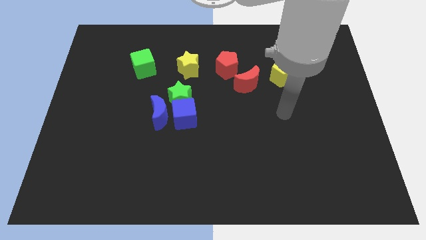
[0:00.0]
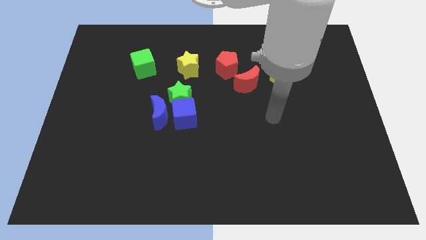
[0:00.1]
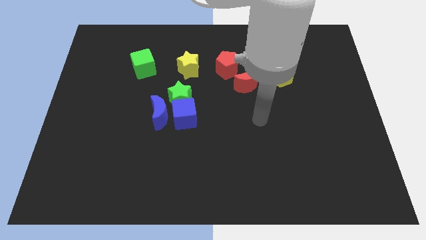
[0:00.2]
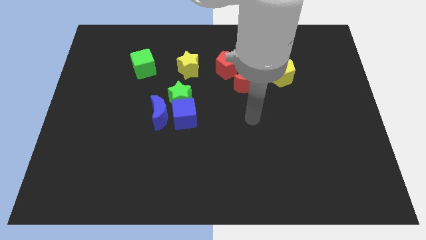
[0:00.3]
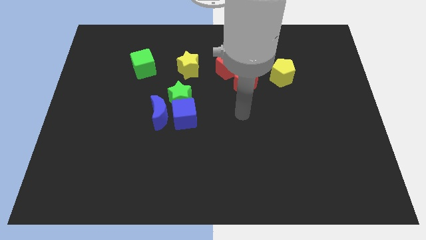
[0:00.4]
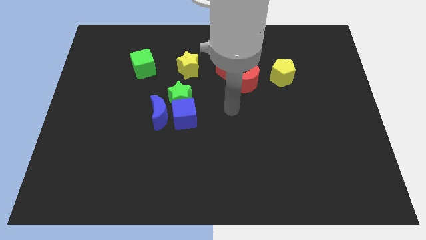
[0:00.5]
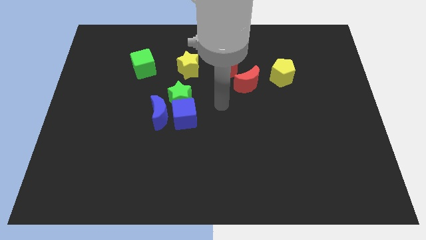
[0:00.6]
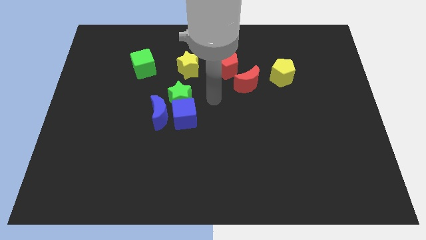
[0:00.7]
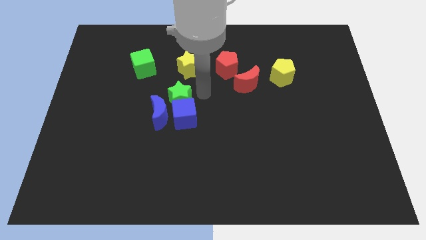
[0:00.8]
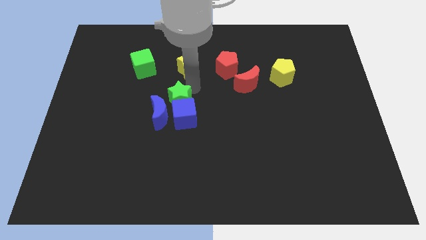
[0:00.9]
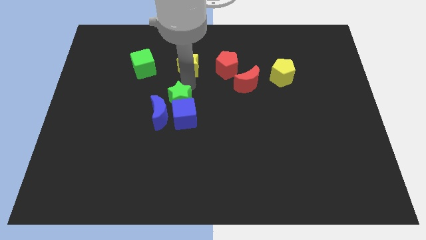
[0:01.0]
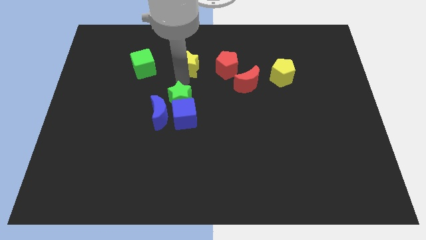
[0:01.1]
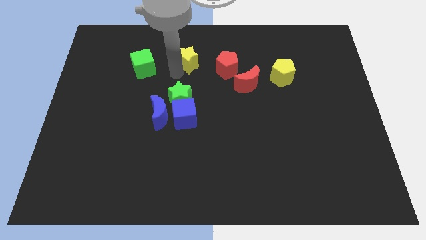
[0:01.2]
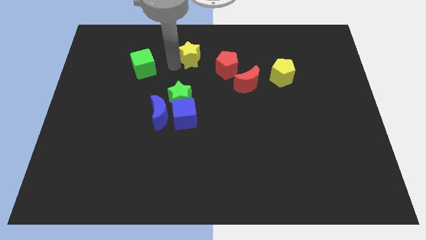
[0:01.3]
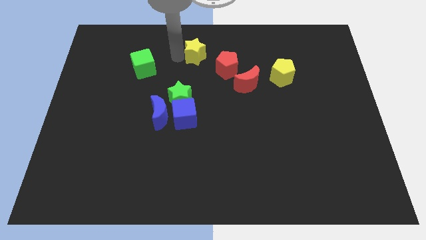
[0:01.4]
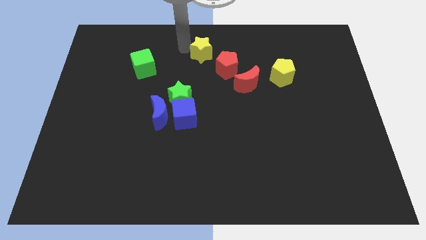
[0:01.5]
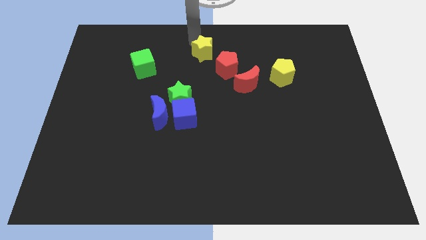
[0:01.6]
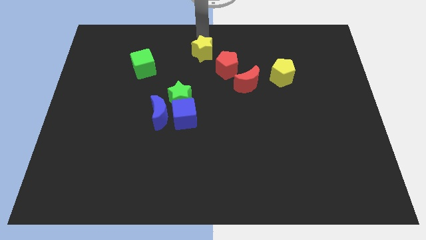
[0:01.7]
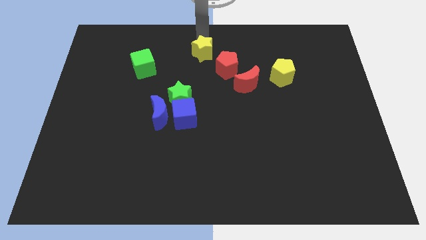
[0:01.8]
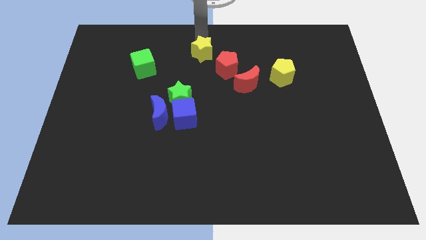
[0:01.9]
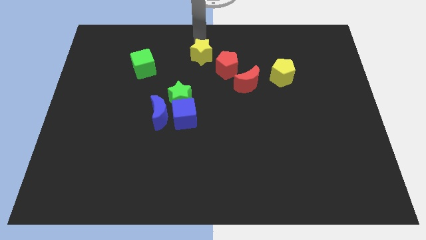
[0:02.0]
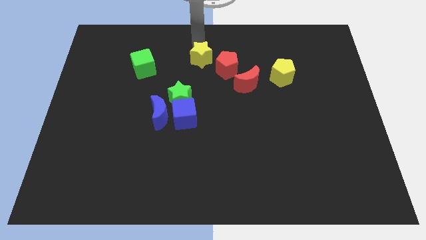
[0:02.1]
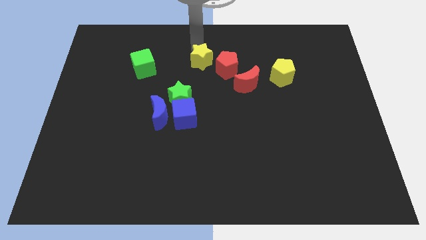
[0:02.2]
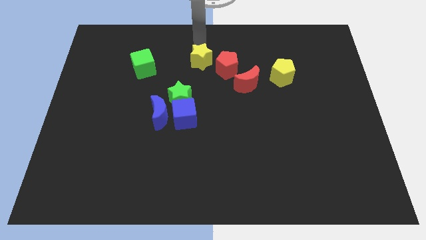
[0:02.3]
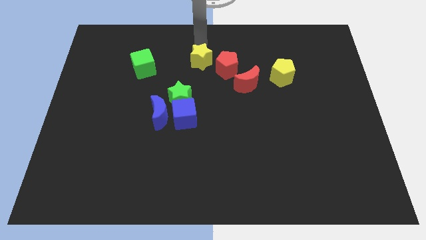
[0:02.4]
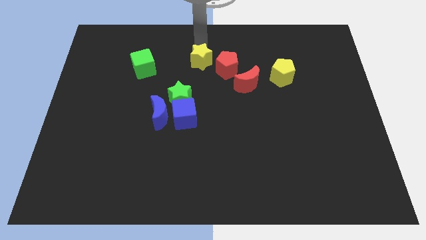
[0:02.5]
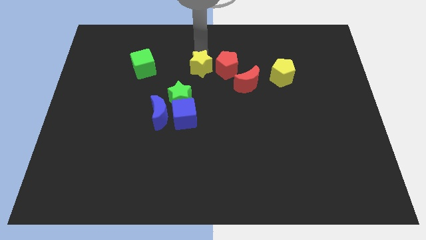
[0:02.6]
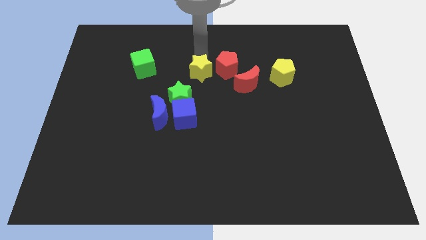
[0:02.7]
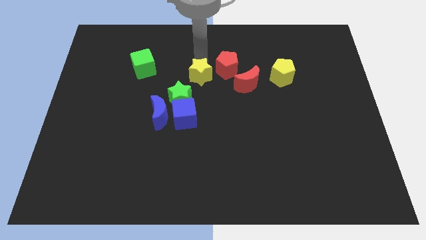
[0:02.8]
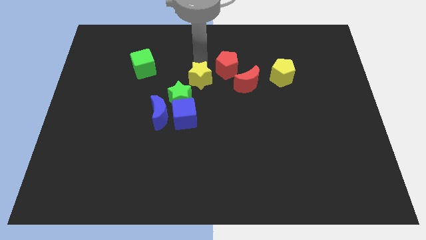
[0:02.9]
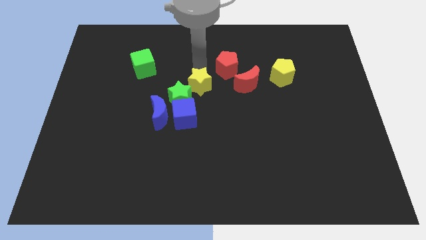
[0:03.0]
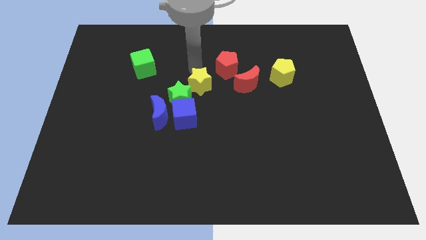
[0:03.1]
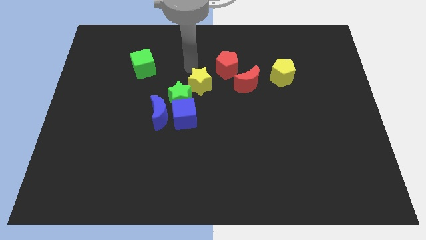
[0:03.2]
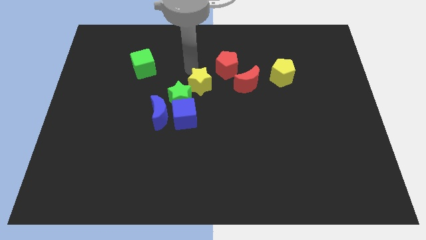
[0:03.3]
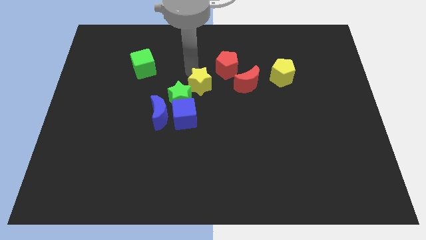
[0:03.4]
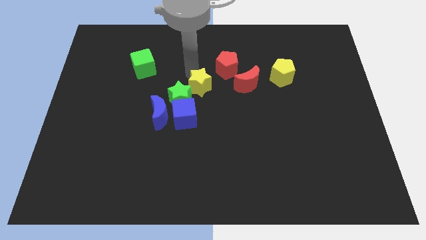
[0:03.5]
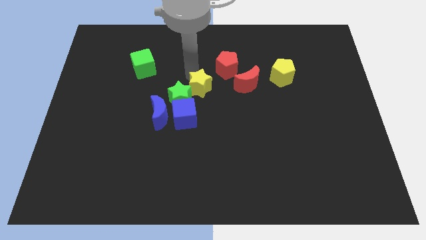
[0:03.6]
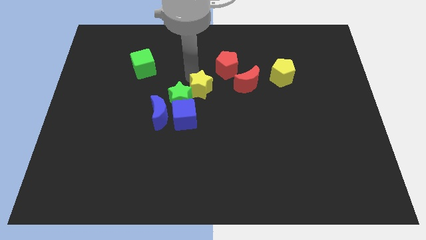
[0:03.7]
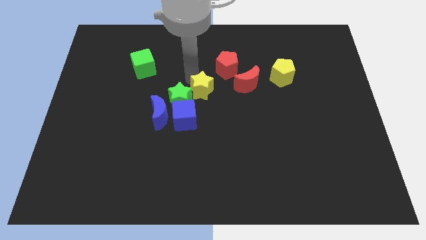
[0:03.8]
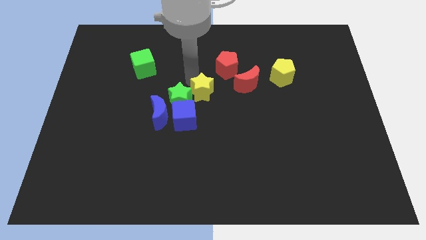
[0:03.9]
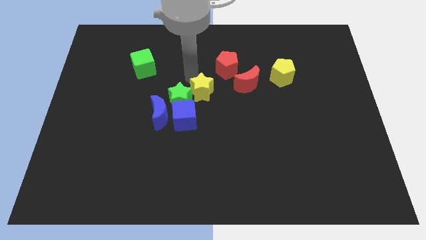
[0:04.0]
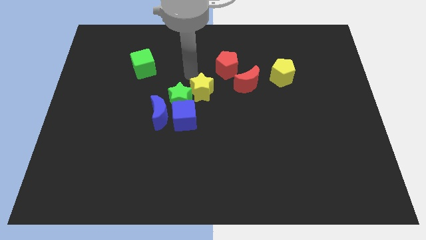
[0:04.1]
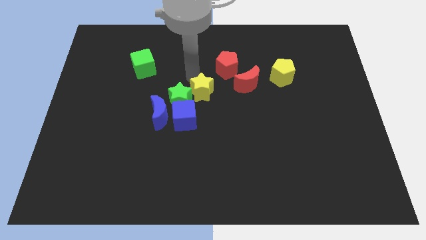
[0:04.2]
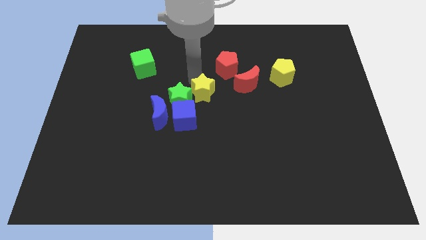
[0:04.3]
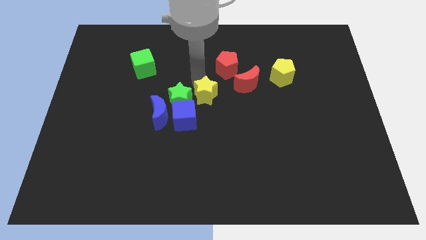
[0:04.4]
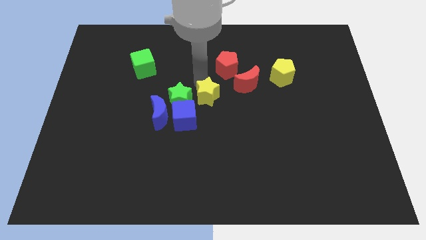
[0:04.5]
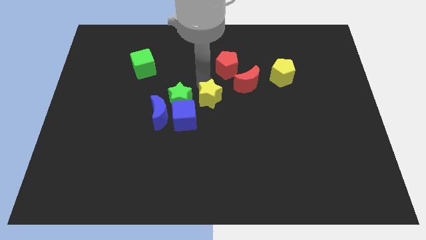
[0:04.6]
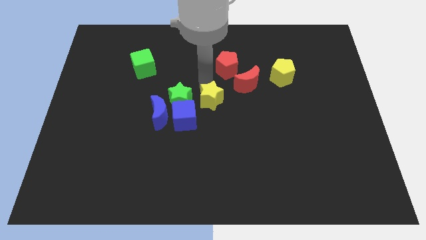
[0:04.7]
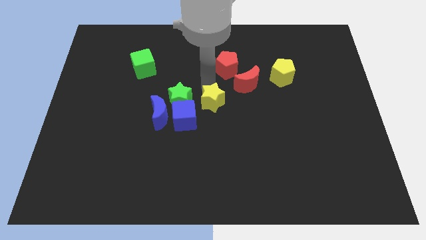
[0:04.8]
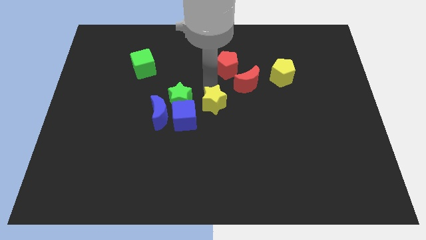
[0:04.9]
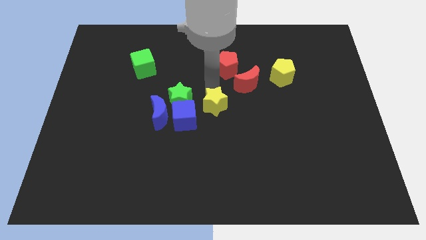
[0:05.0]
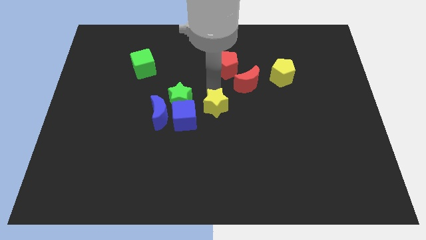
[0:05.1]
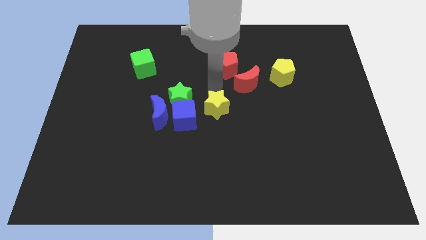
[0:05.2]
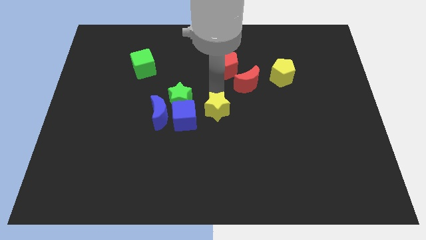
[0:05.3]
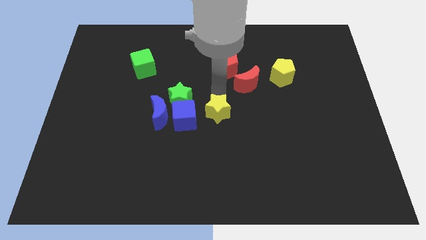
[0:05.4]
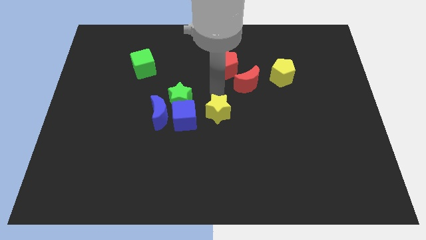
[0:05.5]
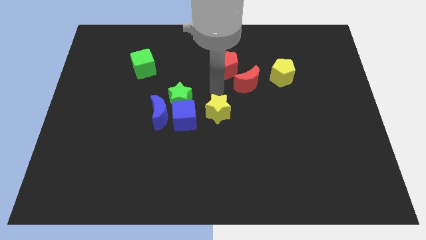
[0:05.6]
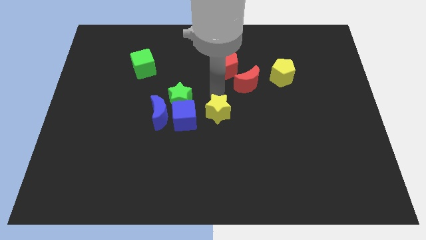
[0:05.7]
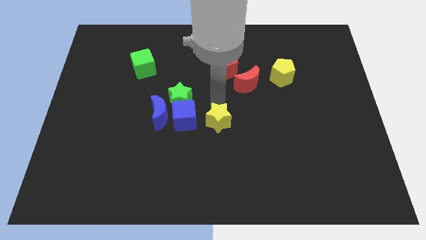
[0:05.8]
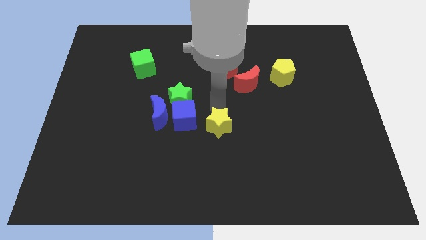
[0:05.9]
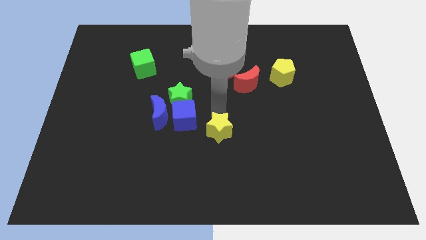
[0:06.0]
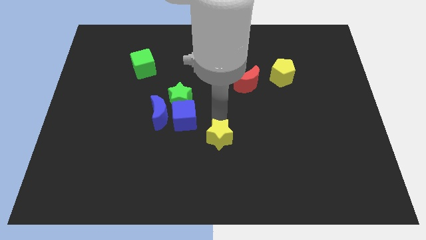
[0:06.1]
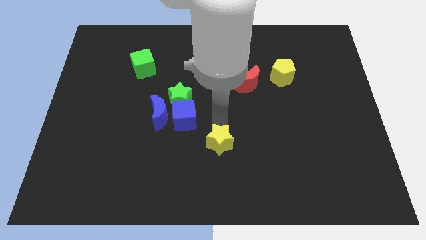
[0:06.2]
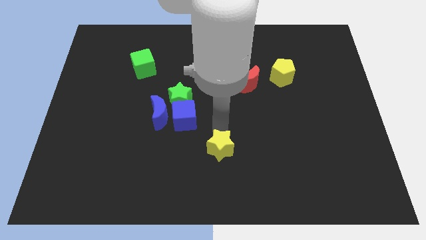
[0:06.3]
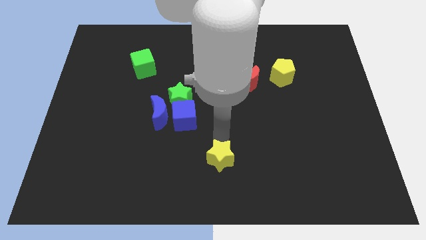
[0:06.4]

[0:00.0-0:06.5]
move the yellow star to the bottom
